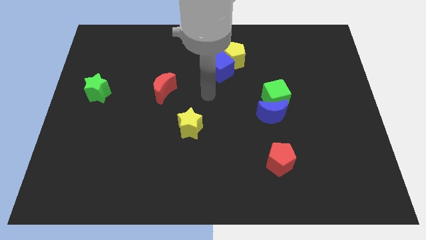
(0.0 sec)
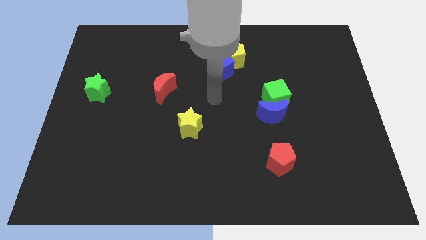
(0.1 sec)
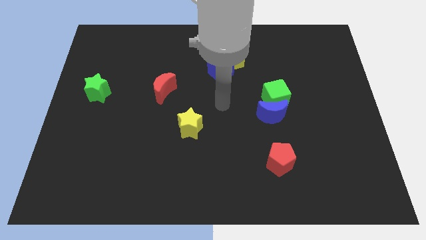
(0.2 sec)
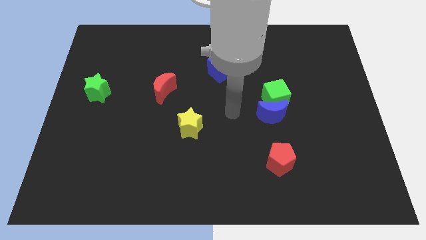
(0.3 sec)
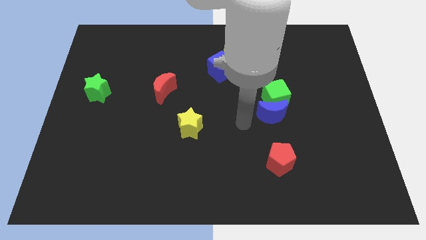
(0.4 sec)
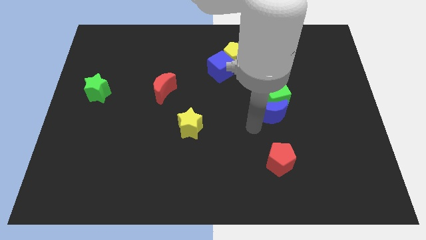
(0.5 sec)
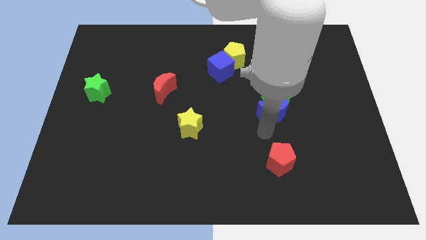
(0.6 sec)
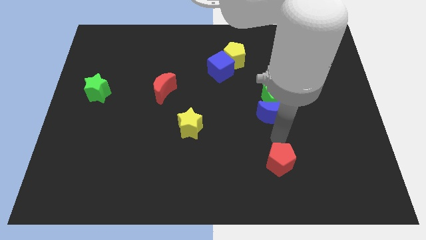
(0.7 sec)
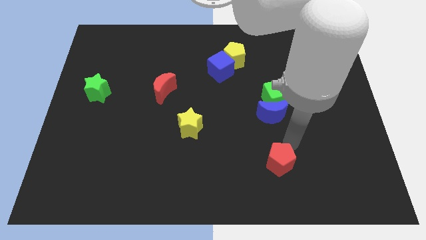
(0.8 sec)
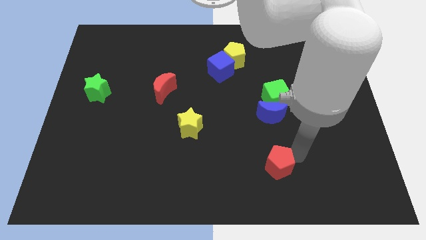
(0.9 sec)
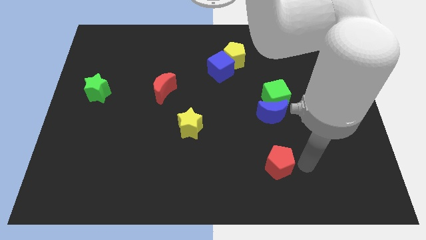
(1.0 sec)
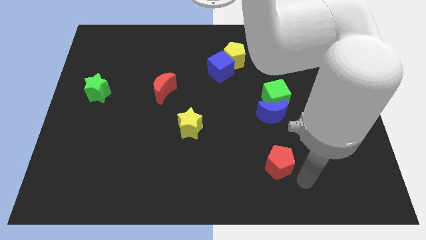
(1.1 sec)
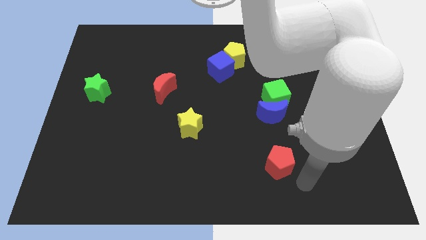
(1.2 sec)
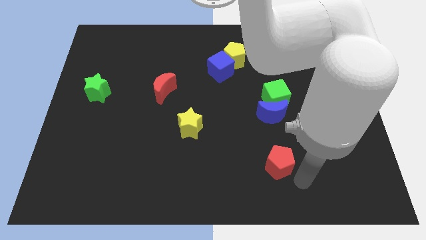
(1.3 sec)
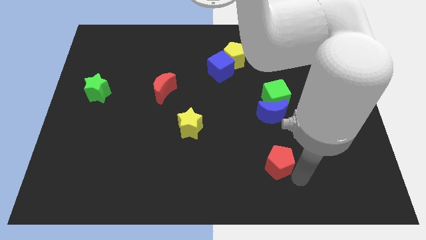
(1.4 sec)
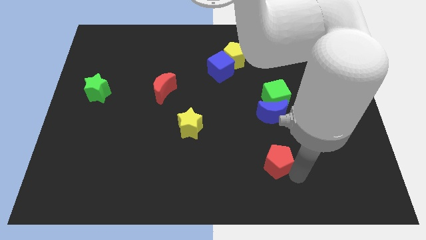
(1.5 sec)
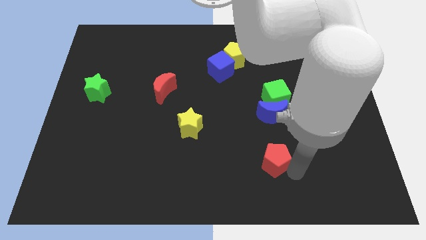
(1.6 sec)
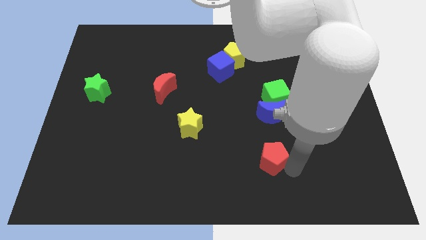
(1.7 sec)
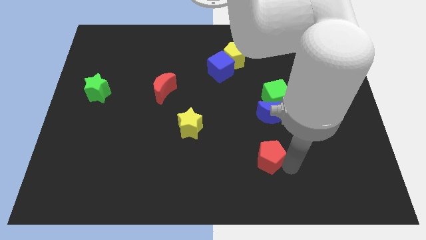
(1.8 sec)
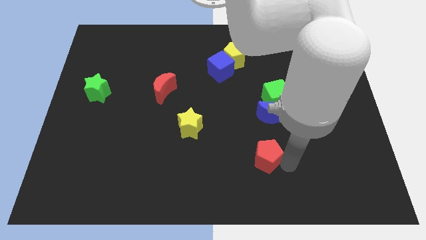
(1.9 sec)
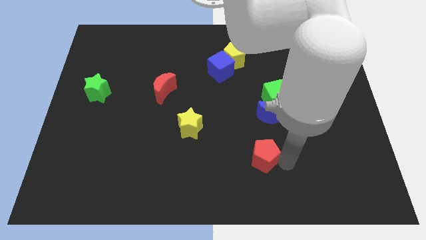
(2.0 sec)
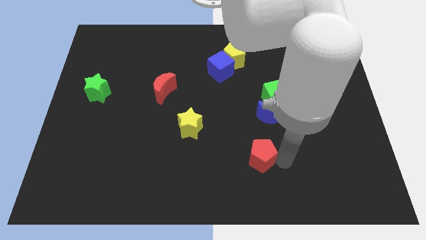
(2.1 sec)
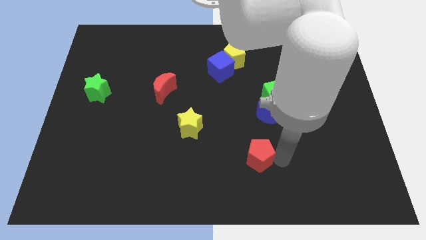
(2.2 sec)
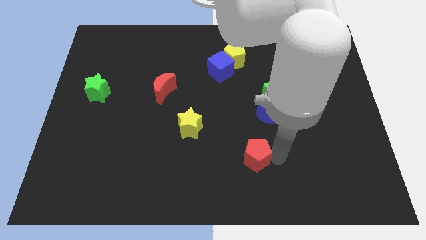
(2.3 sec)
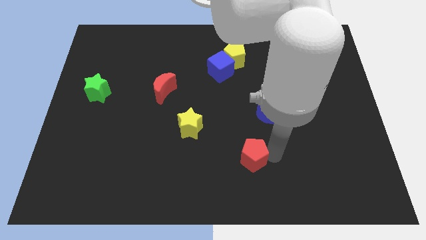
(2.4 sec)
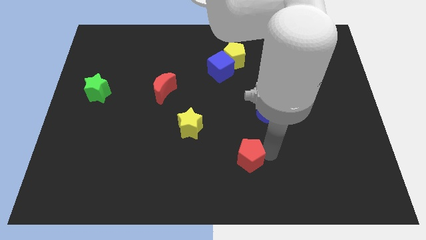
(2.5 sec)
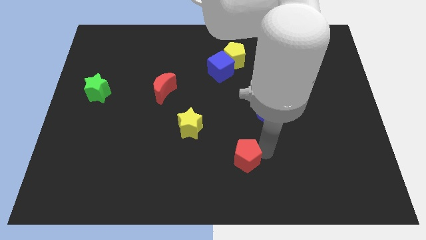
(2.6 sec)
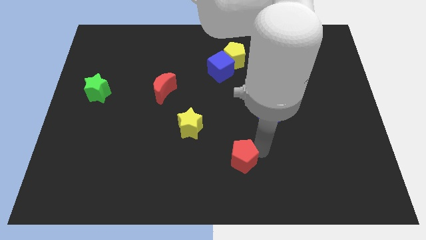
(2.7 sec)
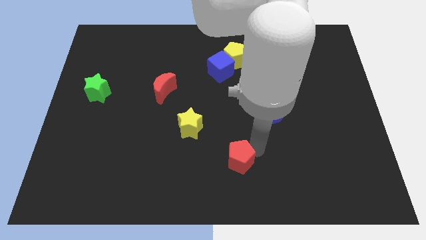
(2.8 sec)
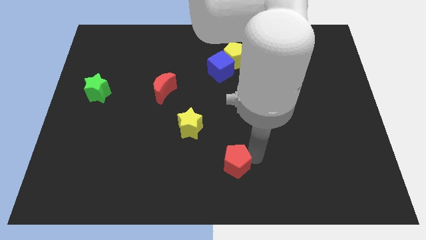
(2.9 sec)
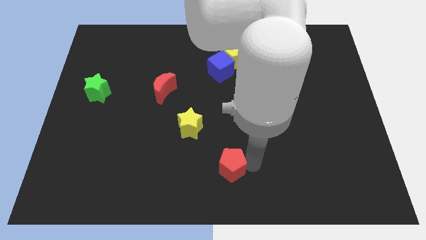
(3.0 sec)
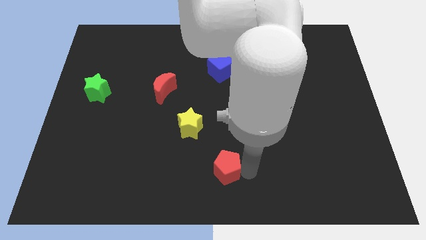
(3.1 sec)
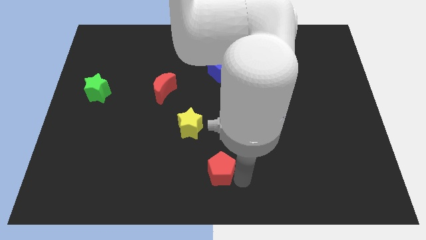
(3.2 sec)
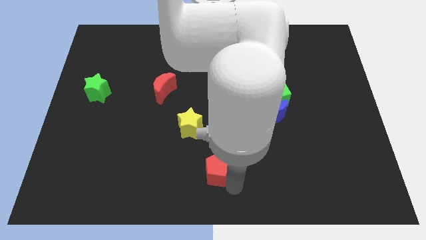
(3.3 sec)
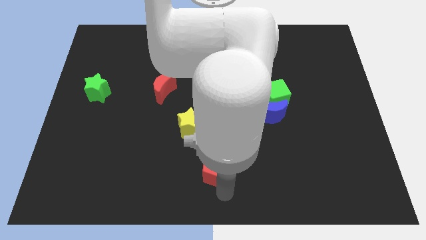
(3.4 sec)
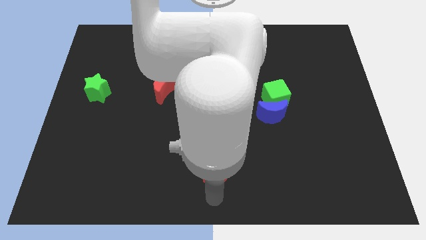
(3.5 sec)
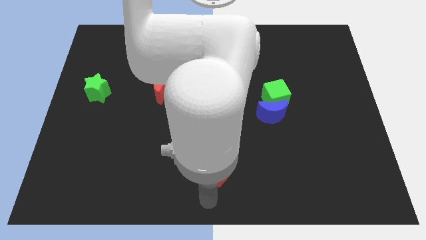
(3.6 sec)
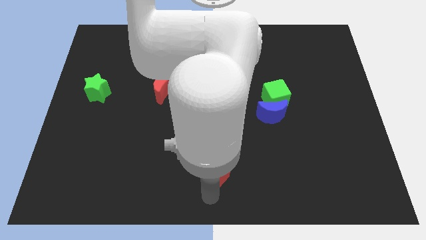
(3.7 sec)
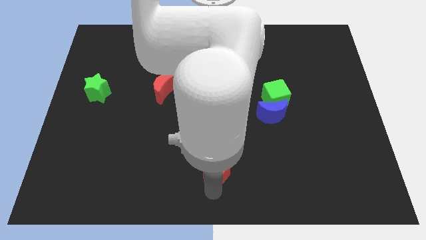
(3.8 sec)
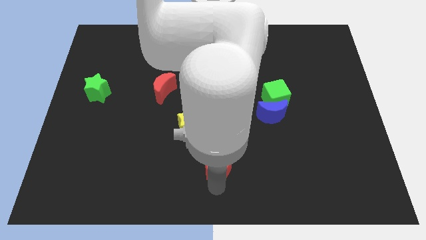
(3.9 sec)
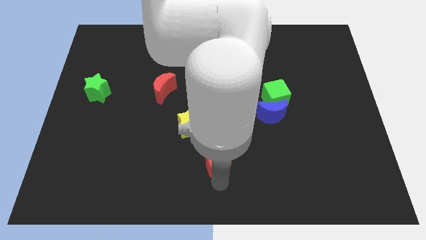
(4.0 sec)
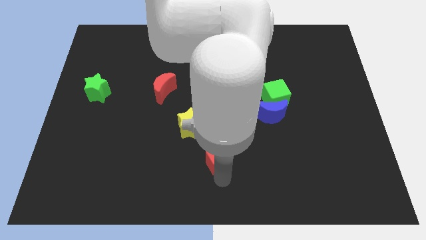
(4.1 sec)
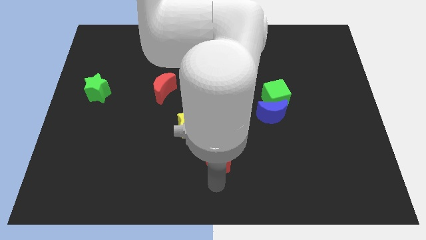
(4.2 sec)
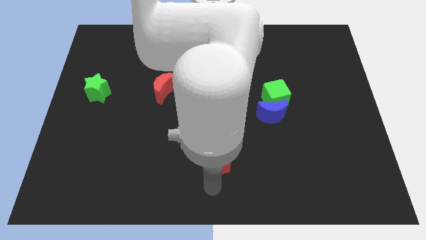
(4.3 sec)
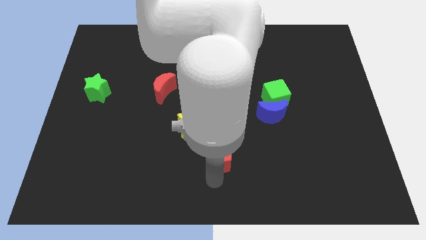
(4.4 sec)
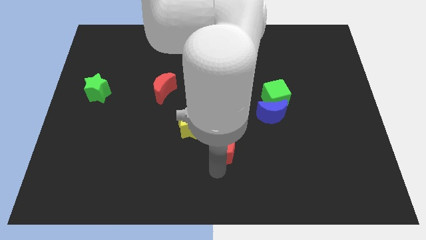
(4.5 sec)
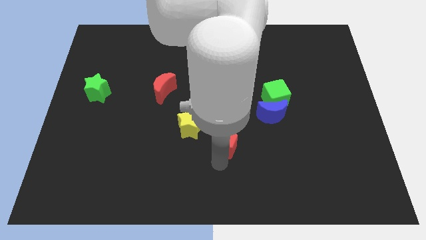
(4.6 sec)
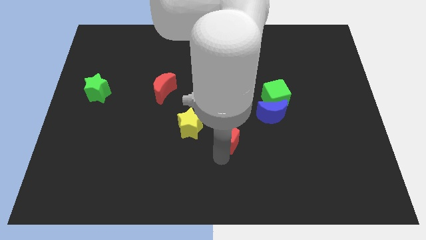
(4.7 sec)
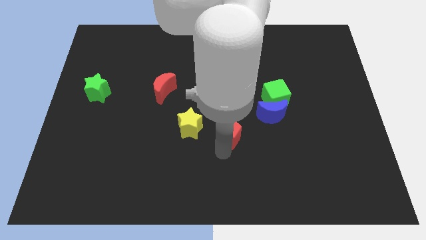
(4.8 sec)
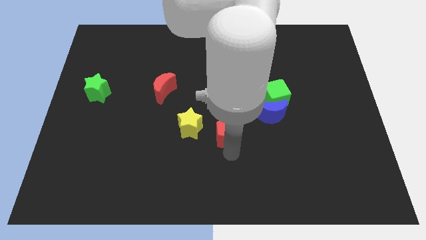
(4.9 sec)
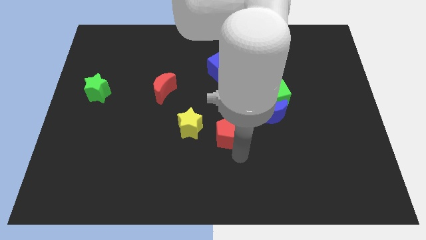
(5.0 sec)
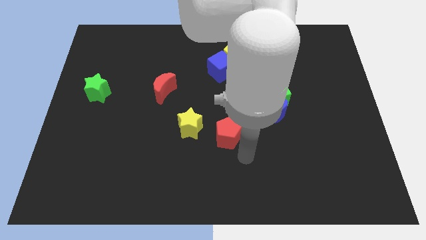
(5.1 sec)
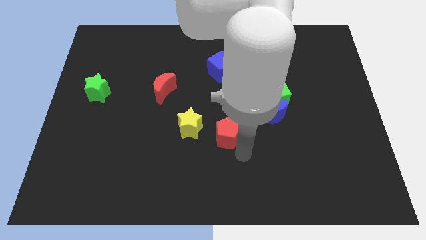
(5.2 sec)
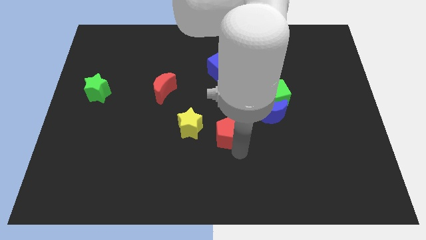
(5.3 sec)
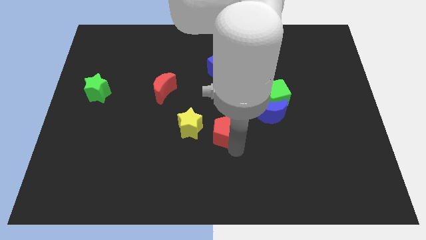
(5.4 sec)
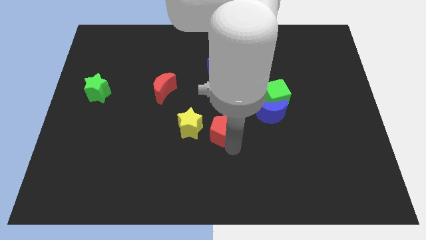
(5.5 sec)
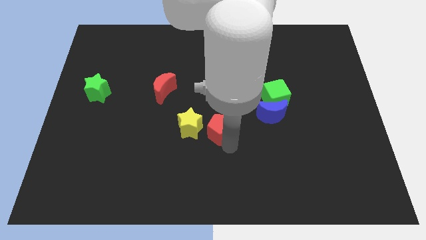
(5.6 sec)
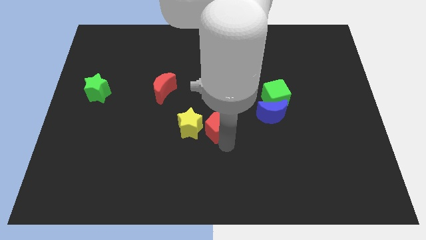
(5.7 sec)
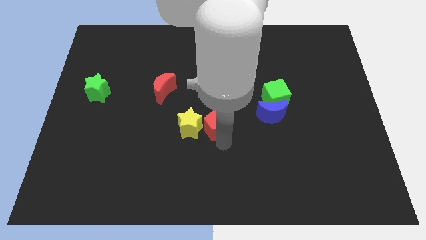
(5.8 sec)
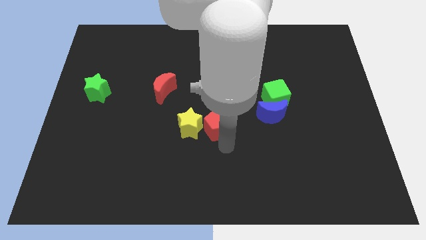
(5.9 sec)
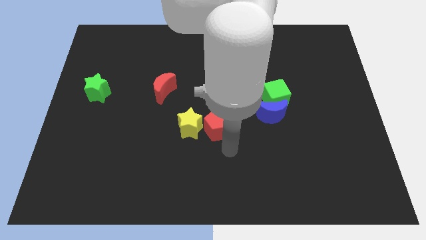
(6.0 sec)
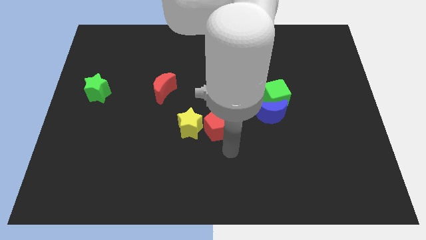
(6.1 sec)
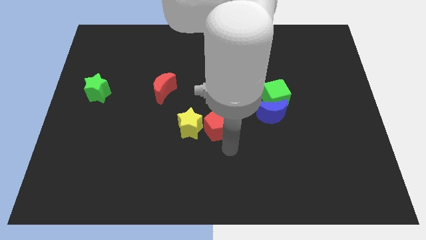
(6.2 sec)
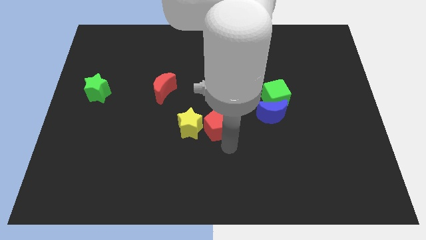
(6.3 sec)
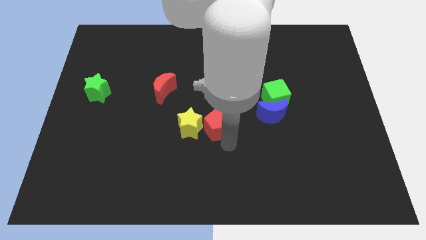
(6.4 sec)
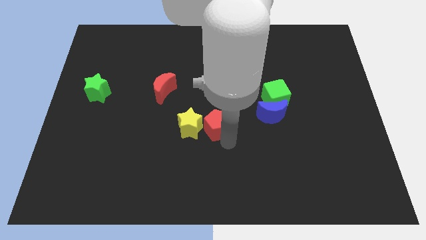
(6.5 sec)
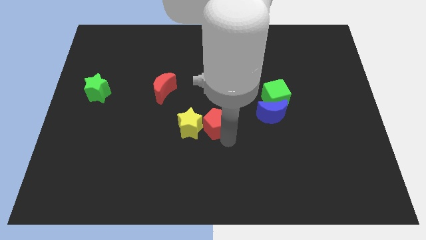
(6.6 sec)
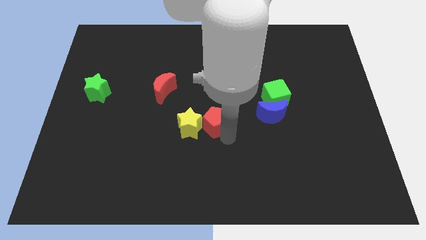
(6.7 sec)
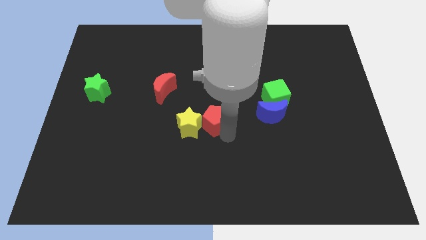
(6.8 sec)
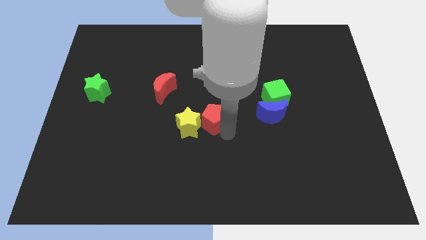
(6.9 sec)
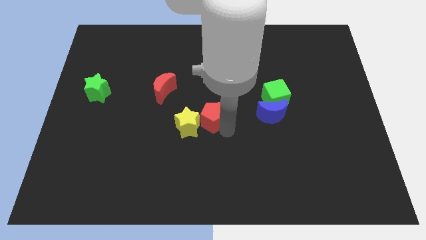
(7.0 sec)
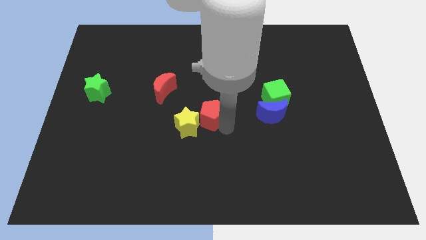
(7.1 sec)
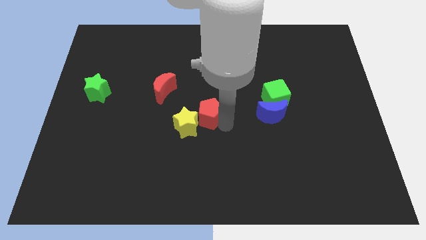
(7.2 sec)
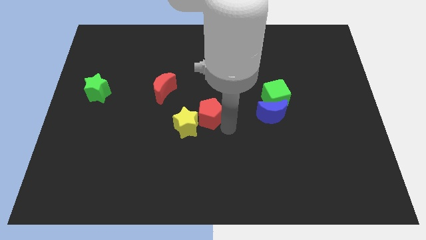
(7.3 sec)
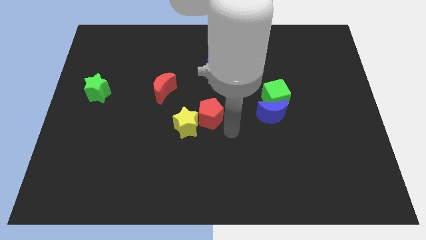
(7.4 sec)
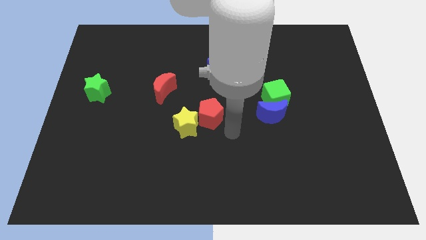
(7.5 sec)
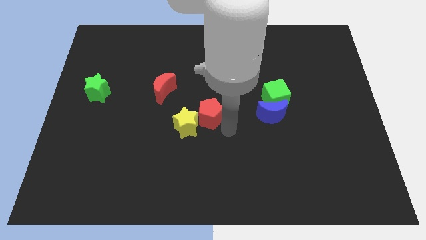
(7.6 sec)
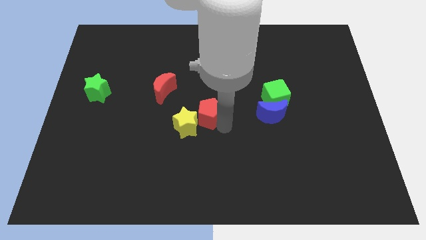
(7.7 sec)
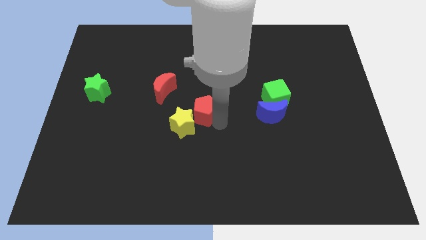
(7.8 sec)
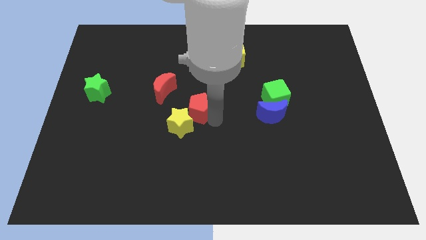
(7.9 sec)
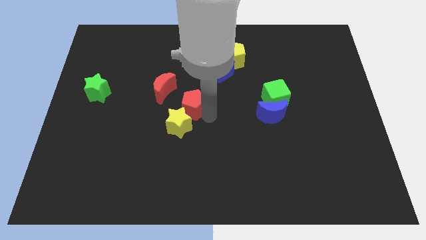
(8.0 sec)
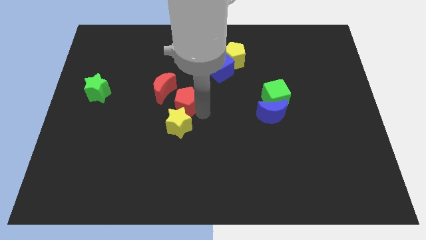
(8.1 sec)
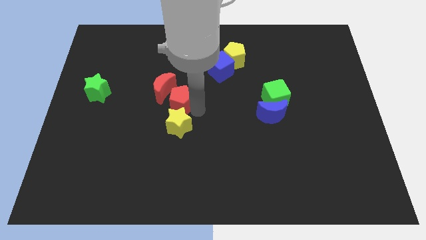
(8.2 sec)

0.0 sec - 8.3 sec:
push the red pentagon close to the red moon
